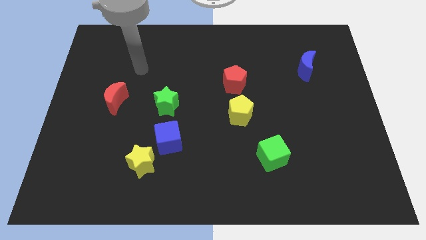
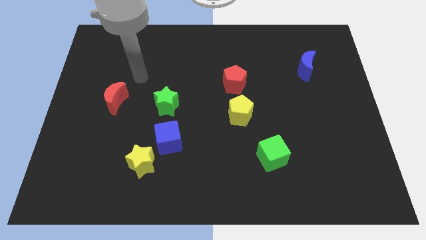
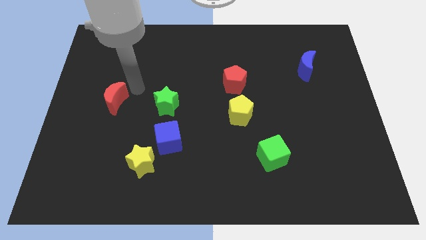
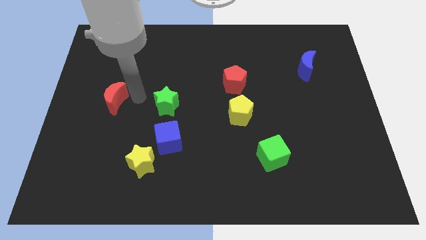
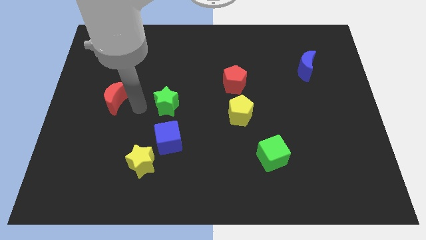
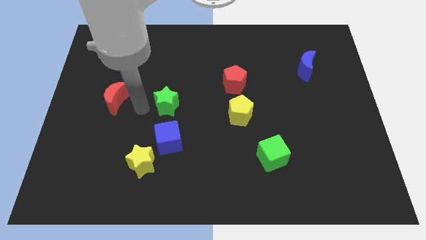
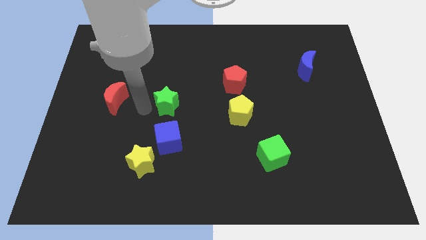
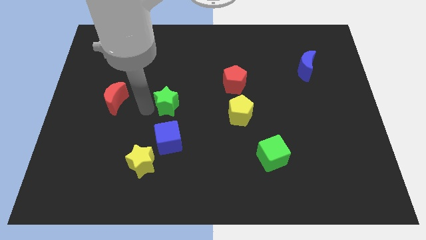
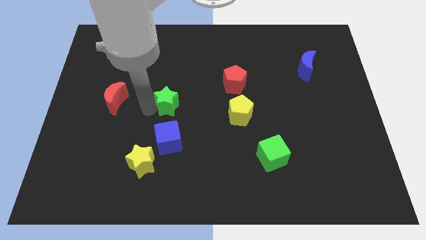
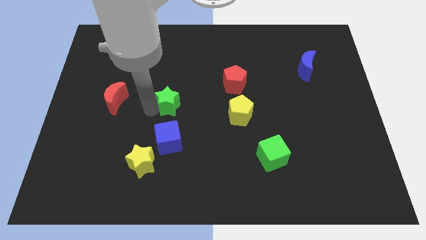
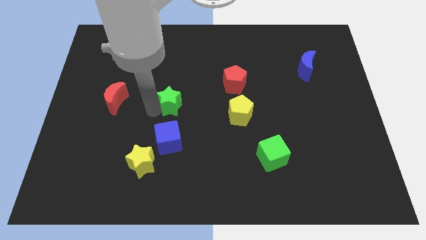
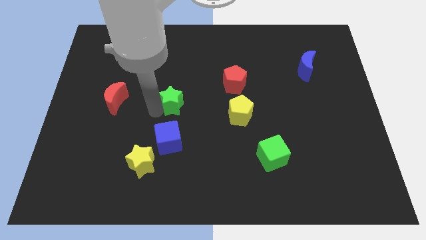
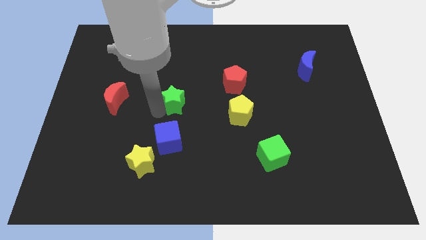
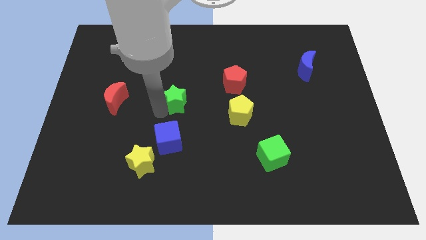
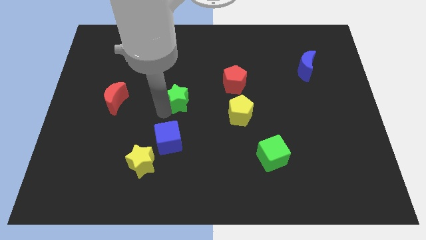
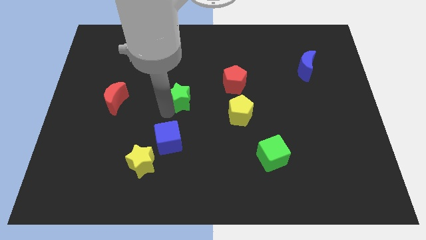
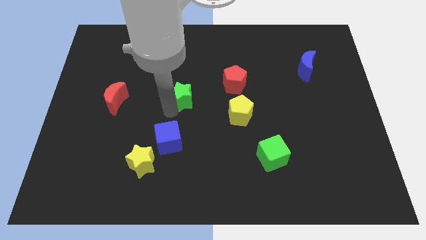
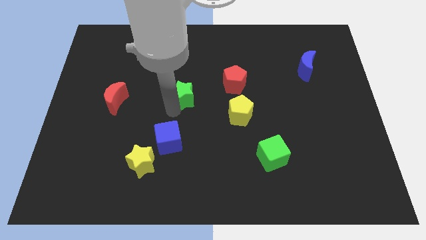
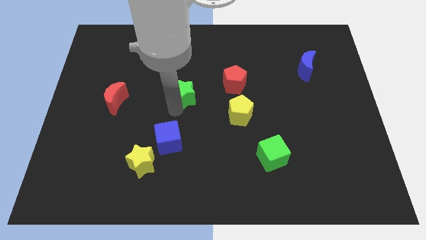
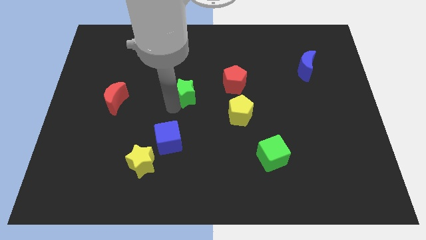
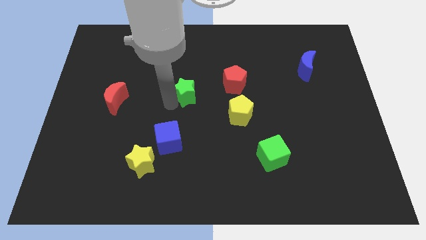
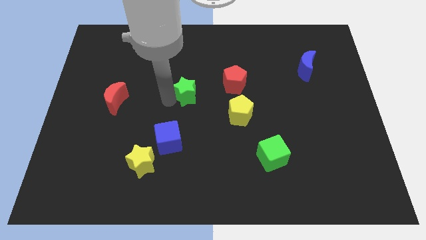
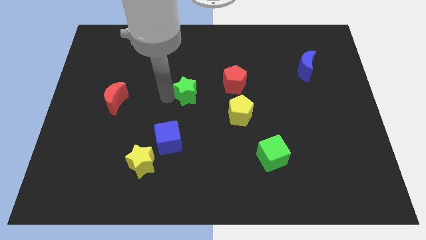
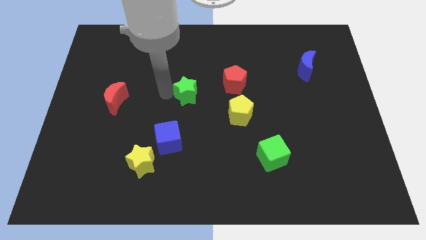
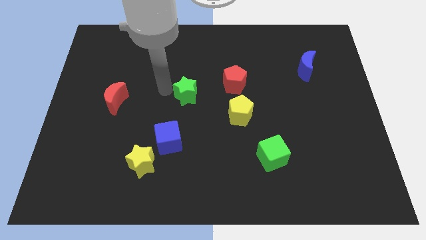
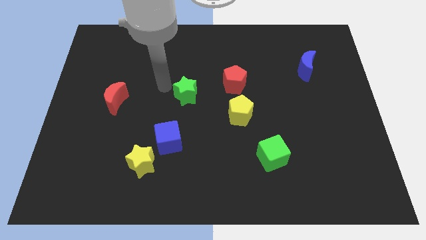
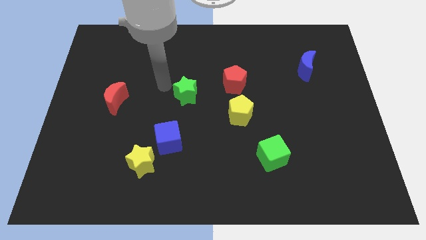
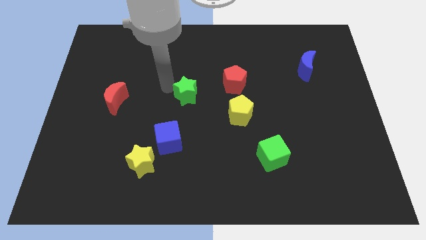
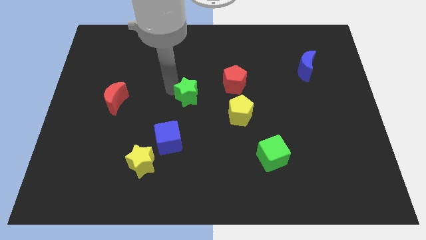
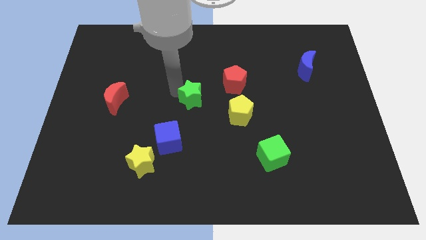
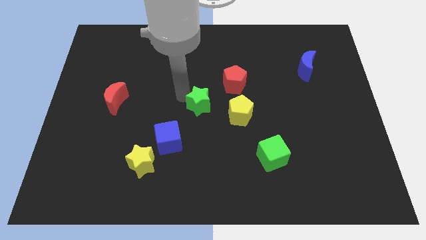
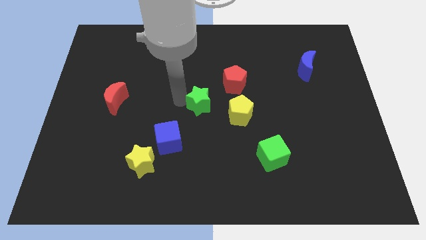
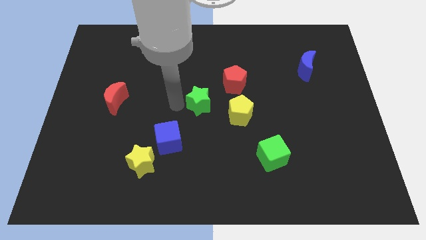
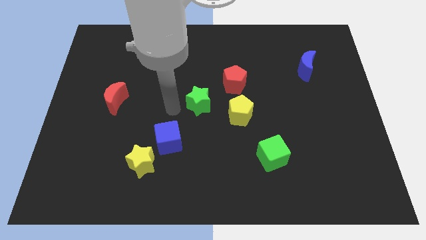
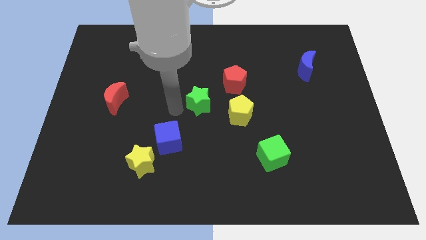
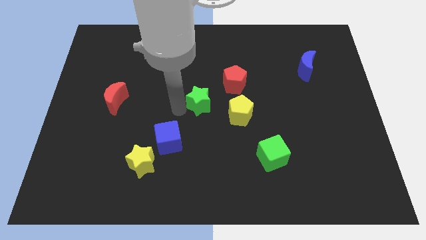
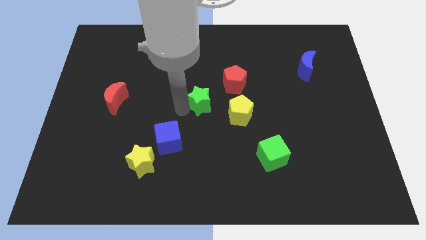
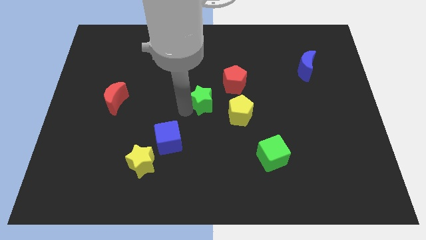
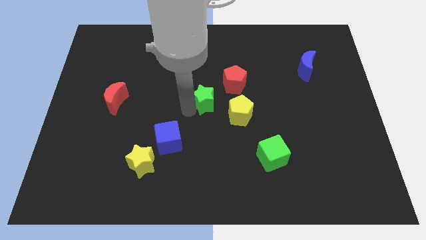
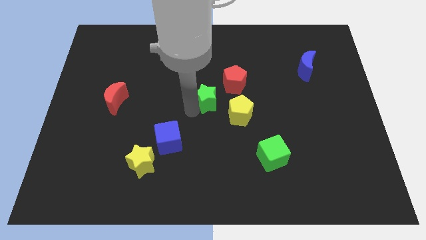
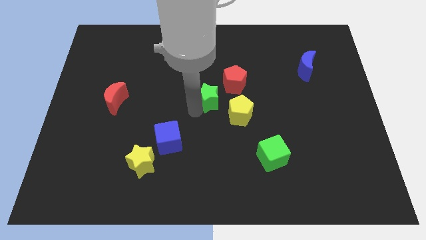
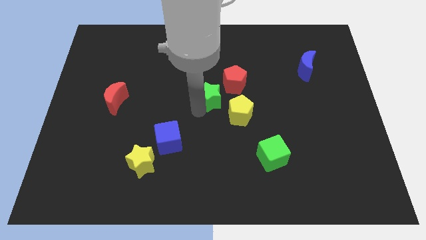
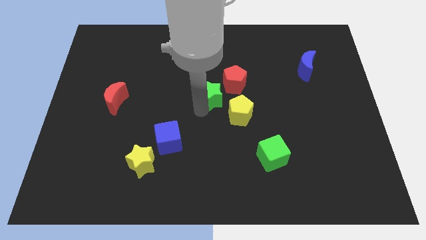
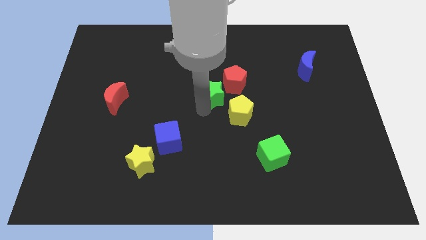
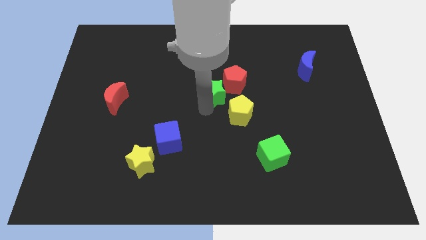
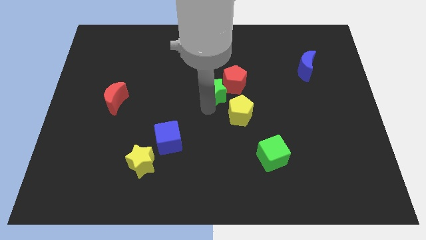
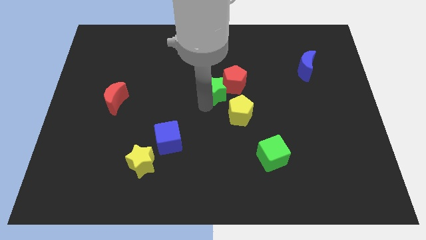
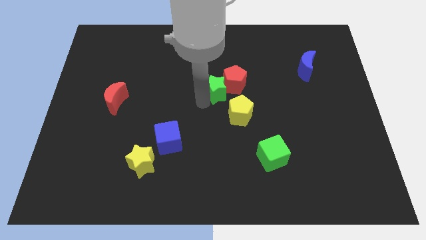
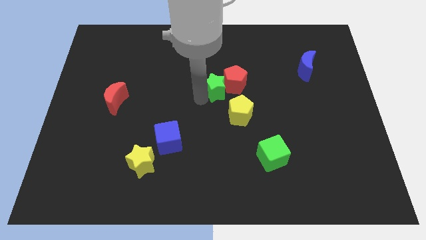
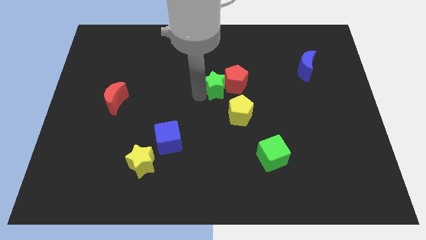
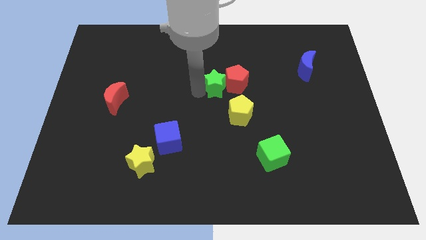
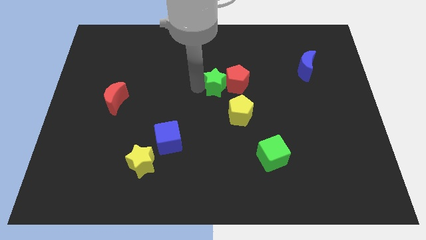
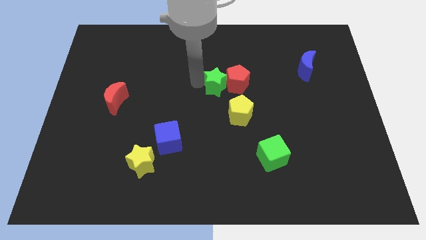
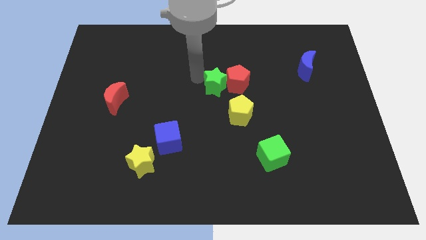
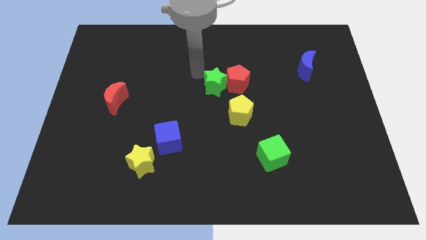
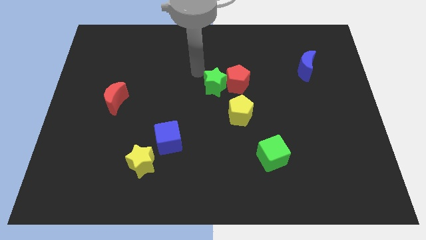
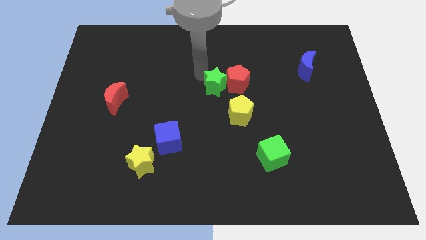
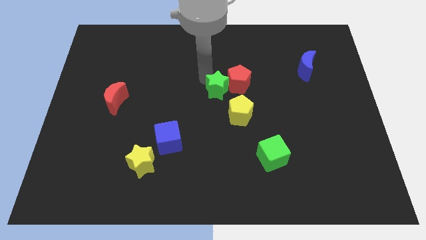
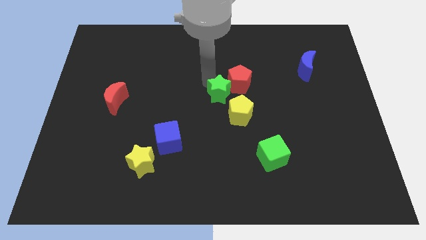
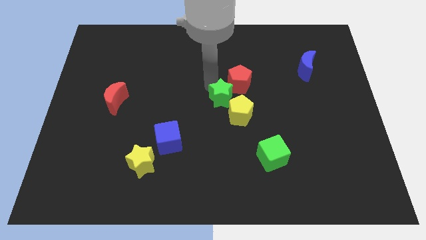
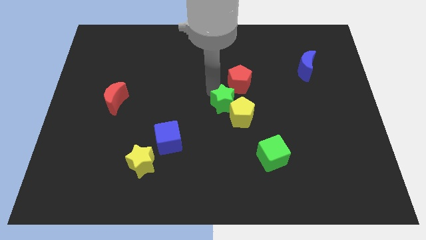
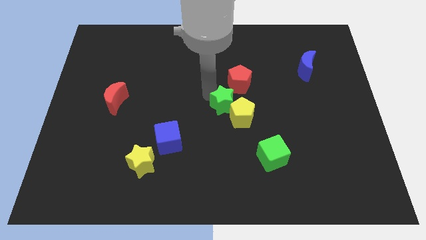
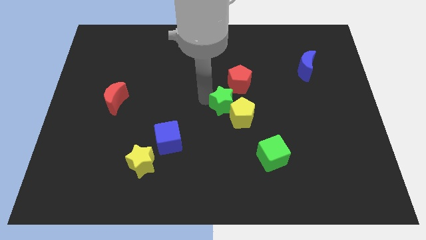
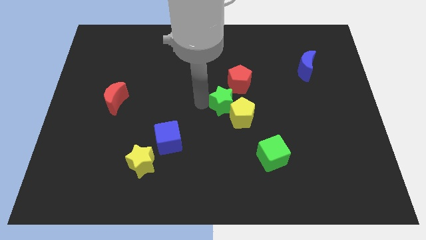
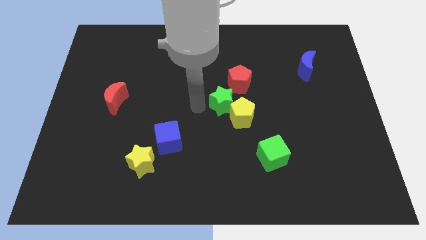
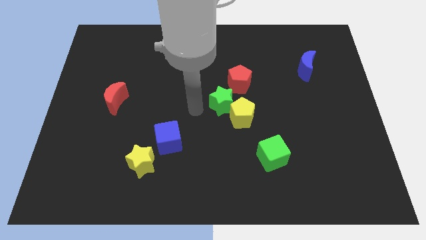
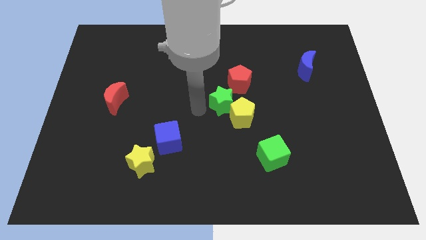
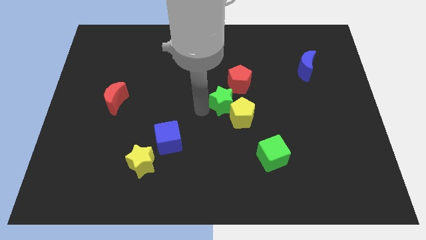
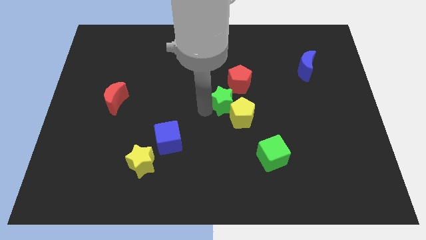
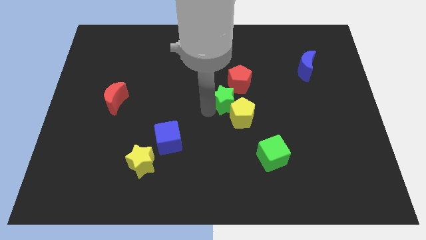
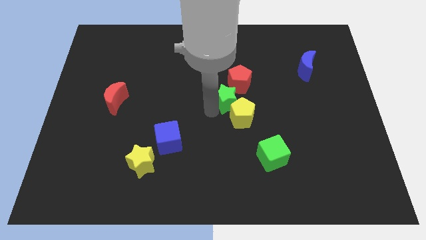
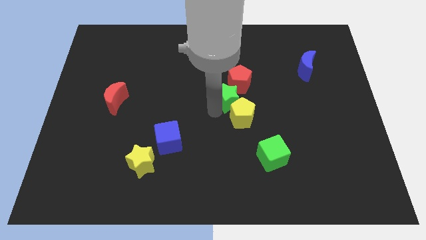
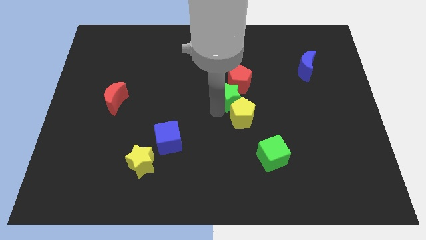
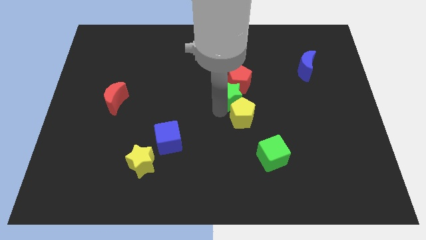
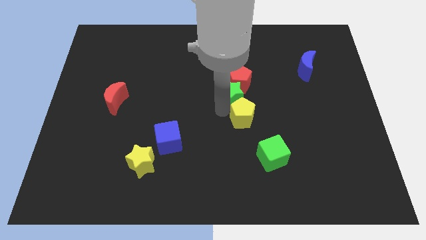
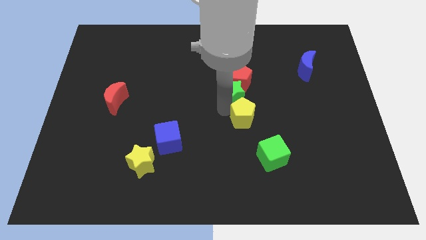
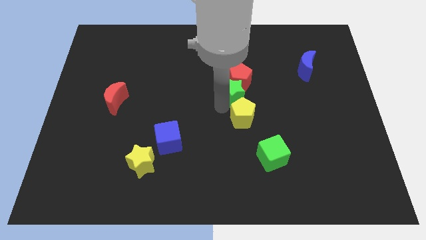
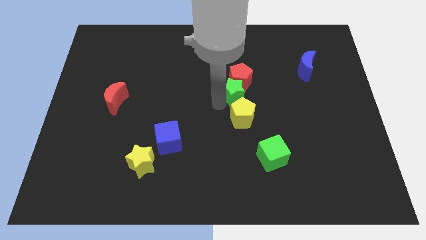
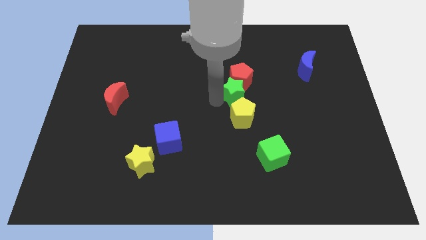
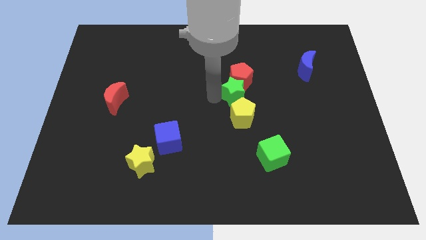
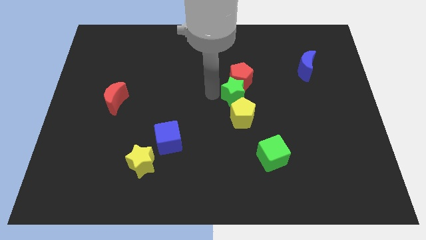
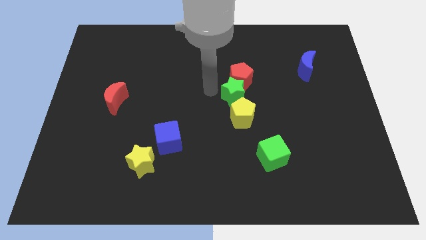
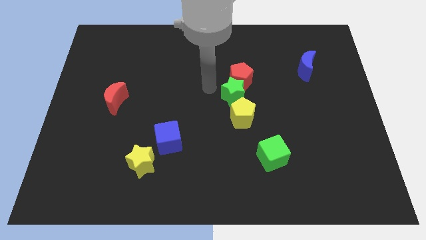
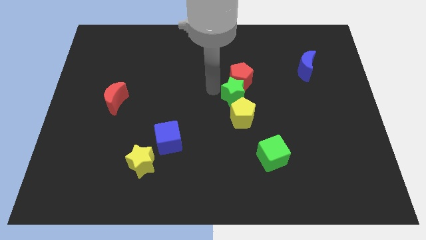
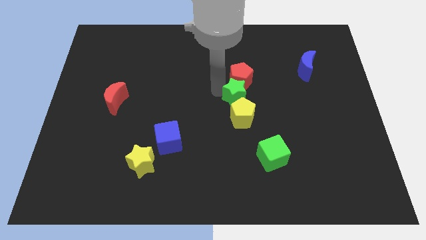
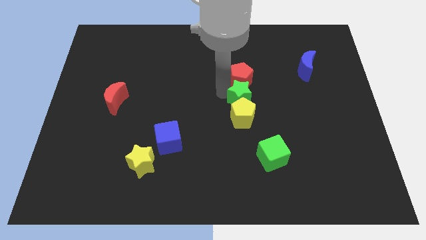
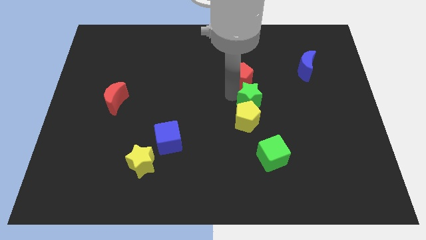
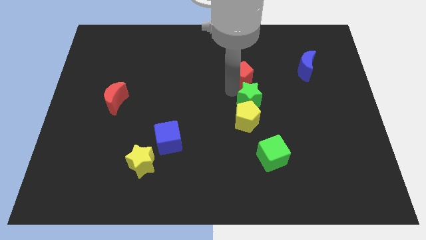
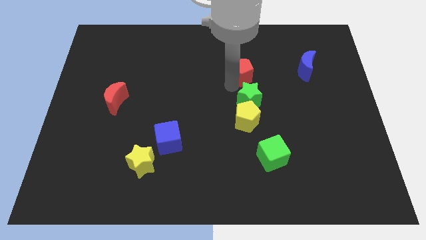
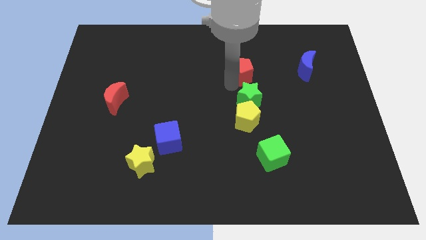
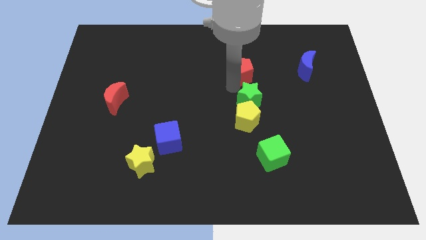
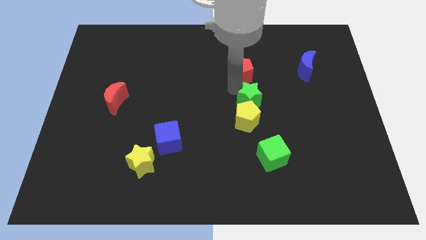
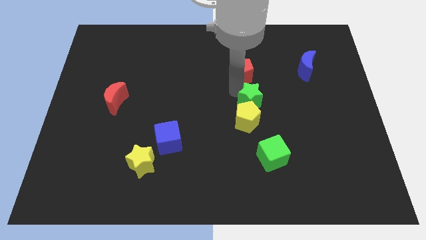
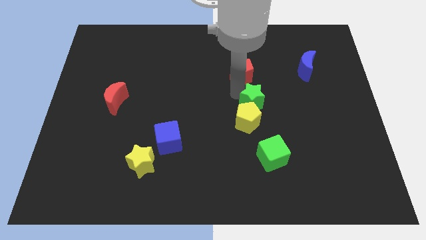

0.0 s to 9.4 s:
push the green star above the green cube
